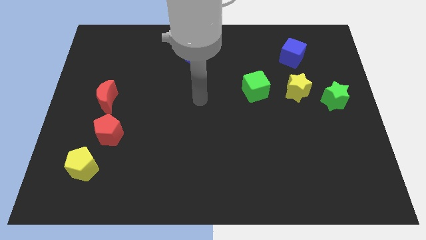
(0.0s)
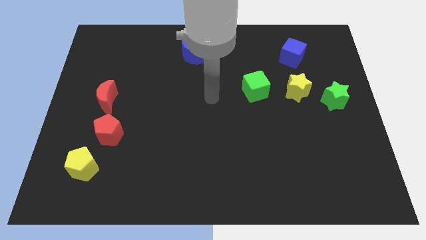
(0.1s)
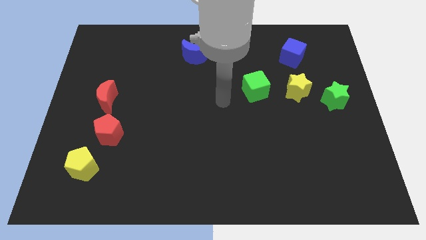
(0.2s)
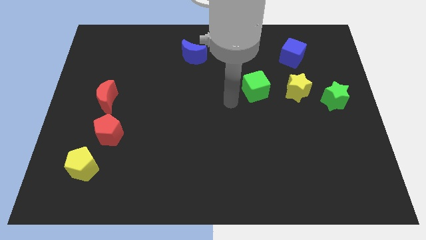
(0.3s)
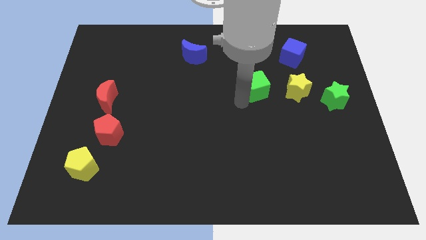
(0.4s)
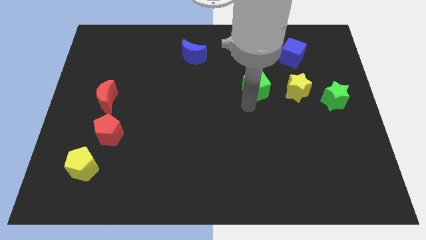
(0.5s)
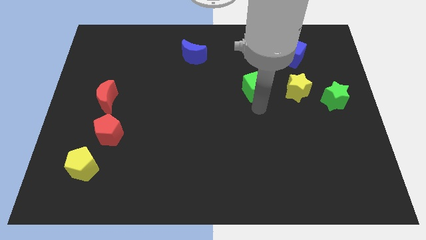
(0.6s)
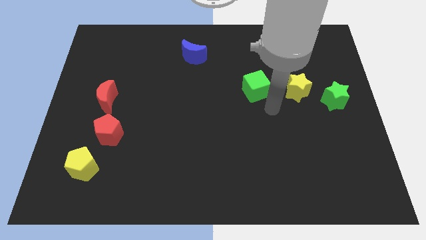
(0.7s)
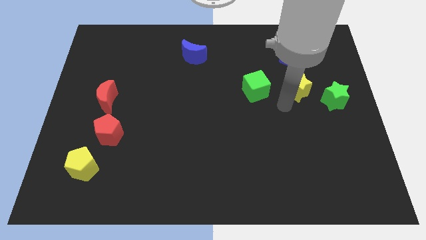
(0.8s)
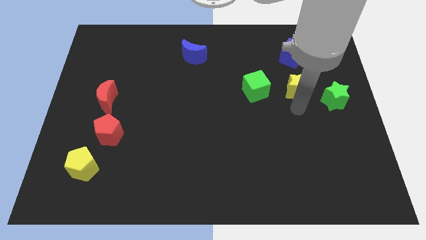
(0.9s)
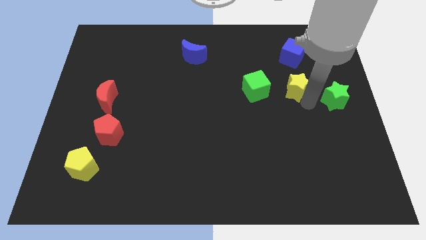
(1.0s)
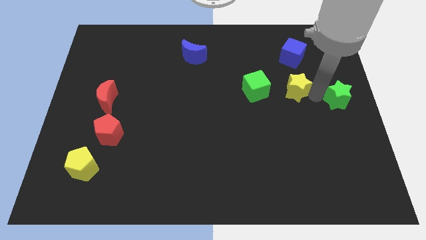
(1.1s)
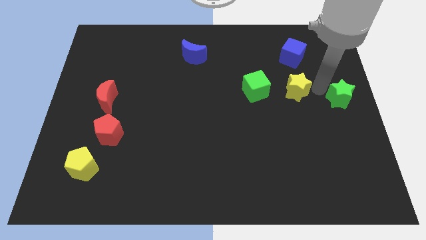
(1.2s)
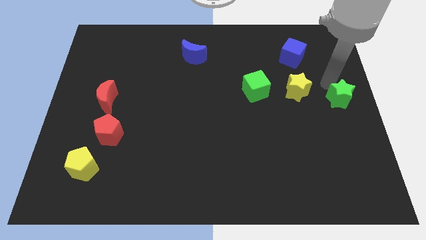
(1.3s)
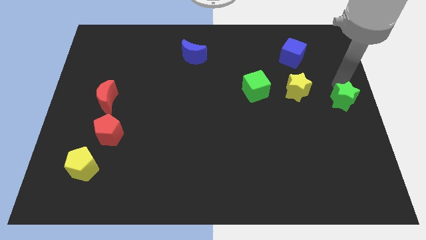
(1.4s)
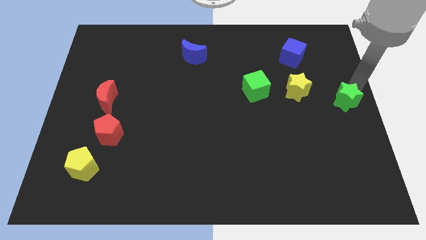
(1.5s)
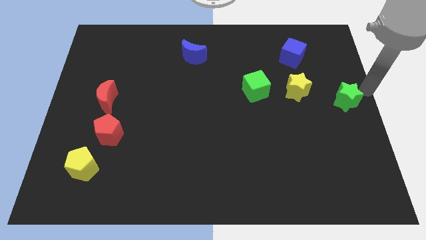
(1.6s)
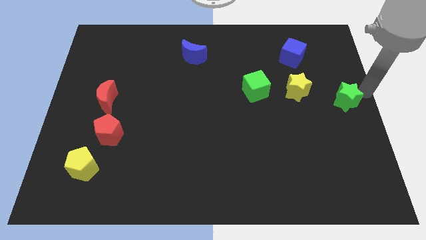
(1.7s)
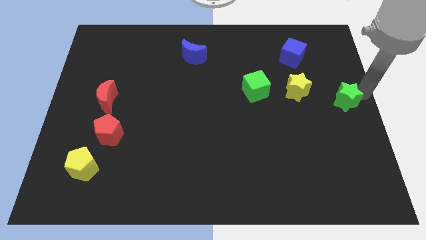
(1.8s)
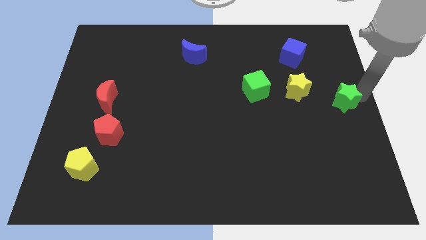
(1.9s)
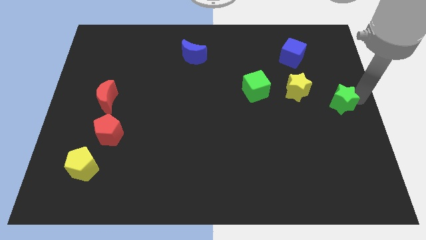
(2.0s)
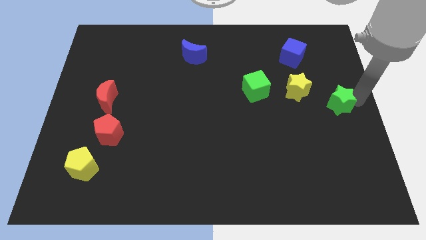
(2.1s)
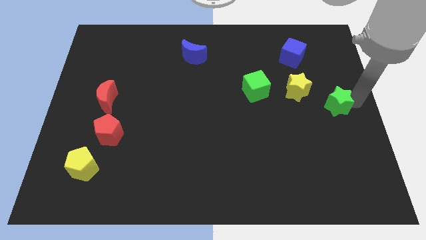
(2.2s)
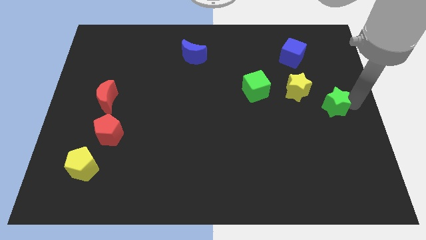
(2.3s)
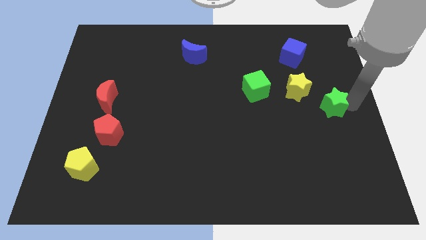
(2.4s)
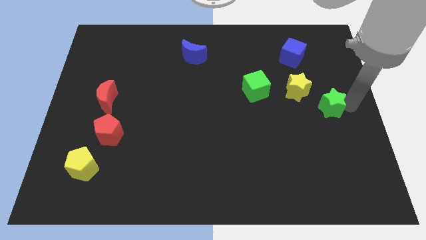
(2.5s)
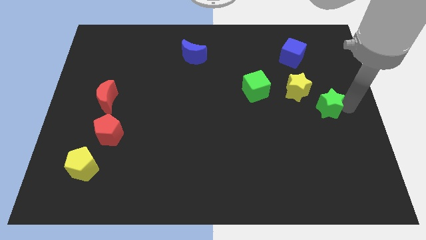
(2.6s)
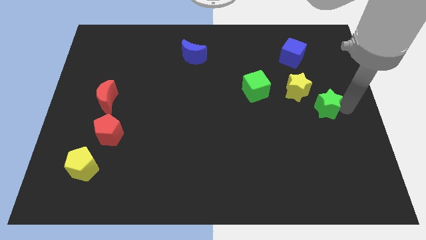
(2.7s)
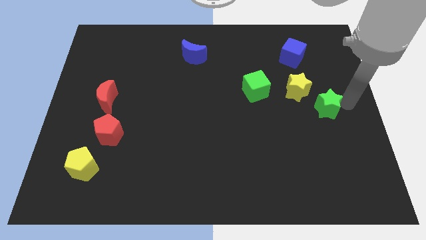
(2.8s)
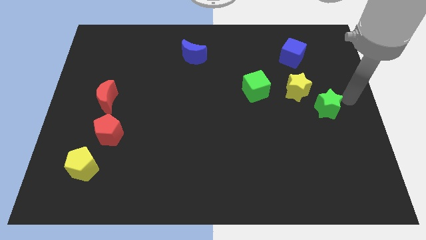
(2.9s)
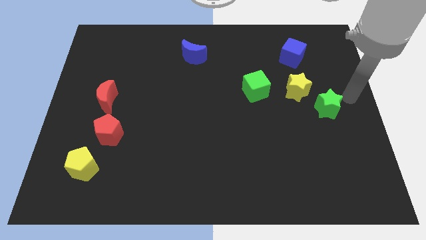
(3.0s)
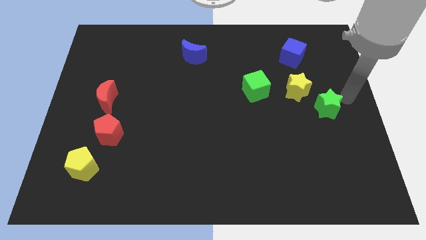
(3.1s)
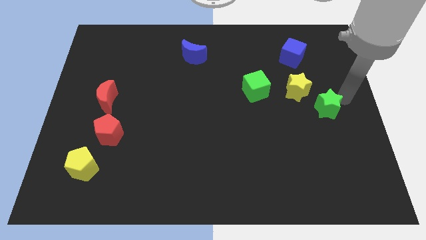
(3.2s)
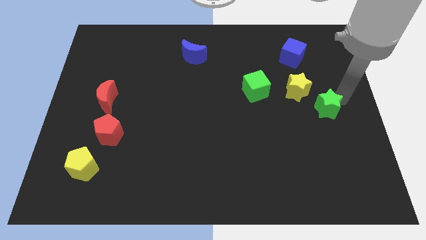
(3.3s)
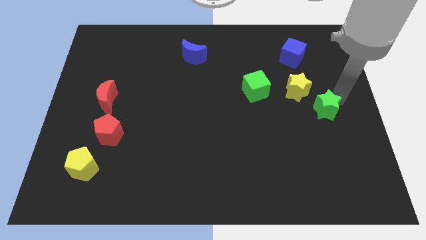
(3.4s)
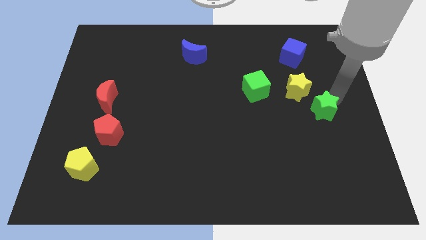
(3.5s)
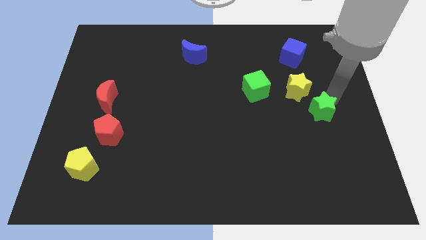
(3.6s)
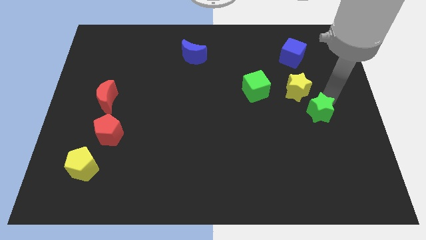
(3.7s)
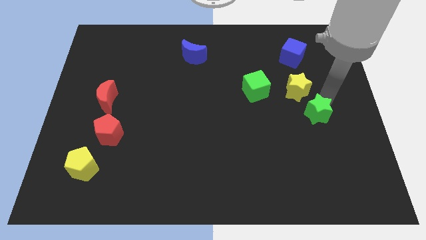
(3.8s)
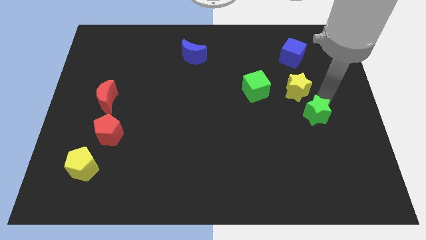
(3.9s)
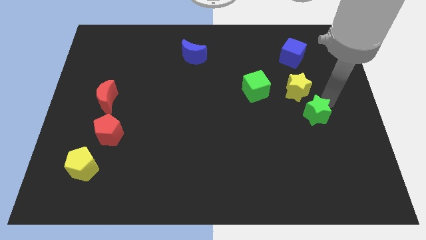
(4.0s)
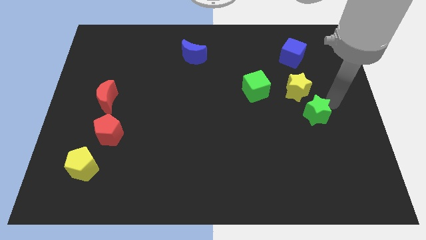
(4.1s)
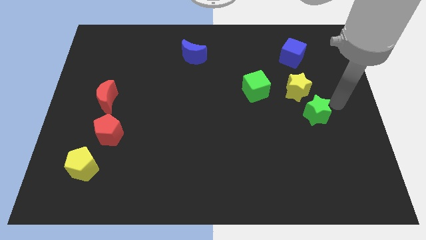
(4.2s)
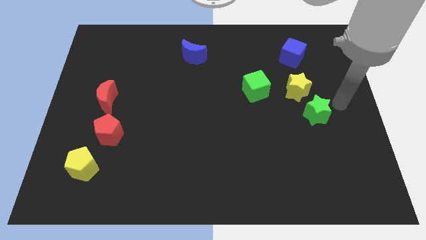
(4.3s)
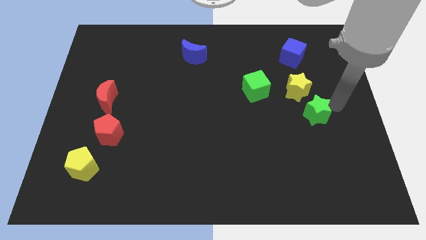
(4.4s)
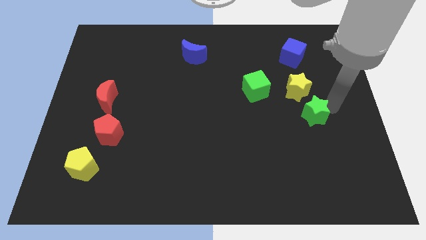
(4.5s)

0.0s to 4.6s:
push the green star a bit downwards and then left

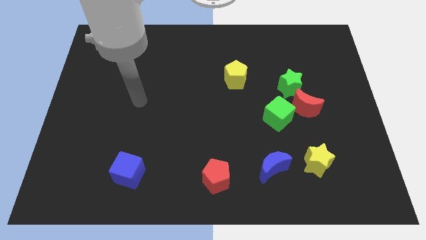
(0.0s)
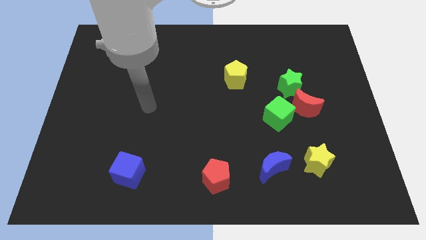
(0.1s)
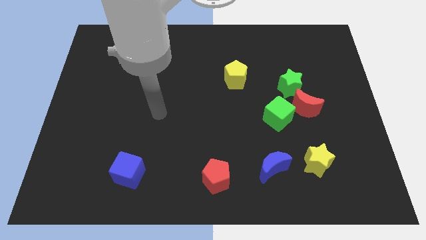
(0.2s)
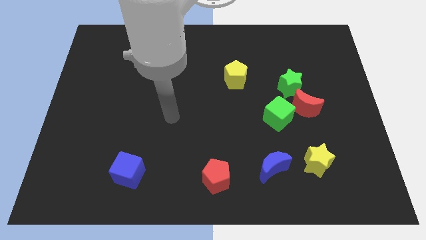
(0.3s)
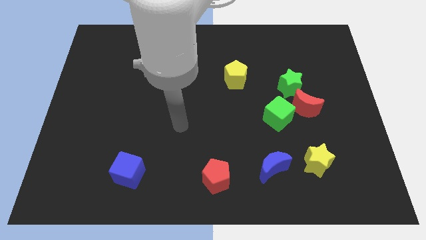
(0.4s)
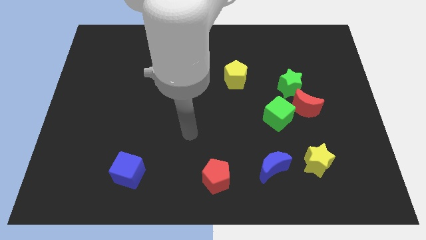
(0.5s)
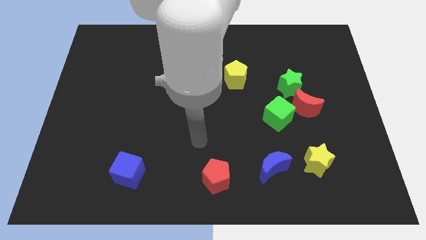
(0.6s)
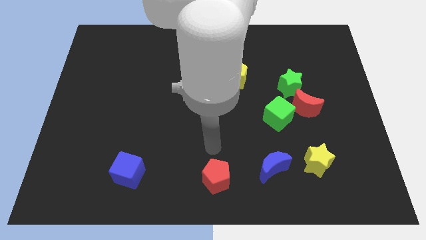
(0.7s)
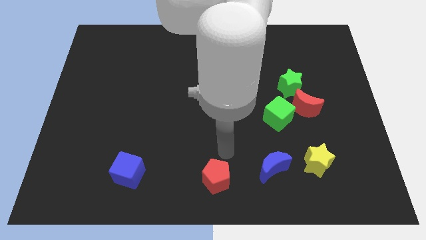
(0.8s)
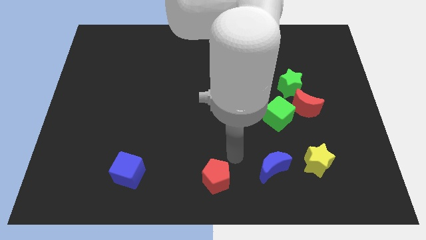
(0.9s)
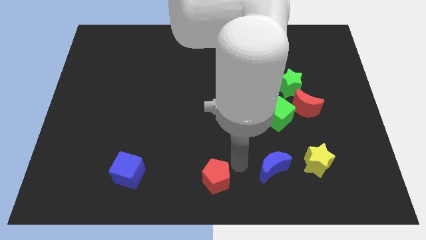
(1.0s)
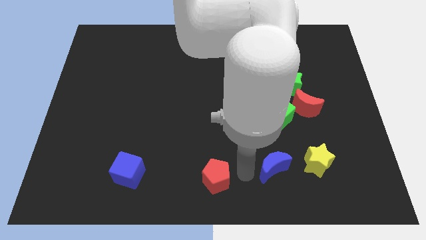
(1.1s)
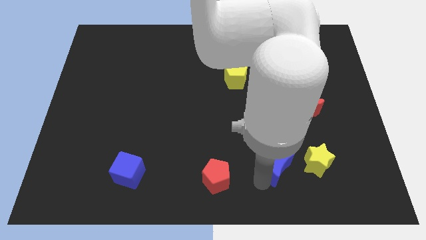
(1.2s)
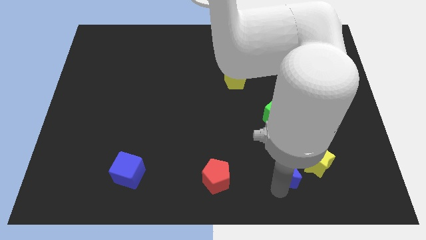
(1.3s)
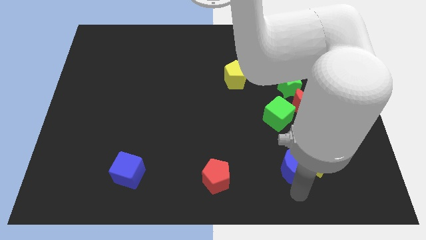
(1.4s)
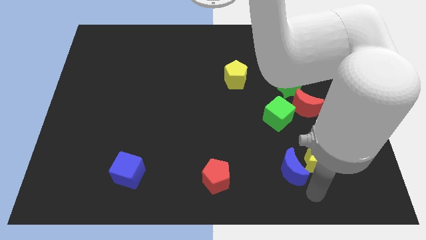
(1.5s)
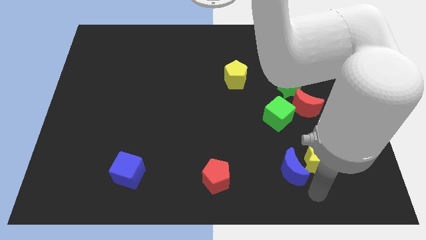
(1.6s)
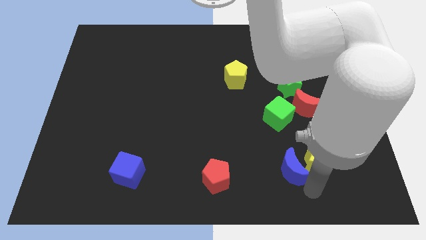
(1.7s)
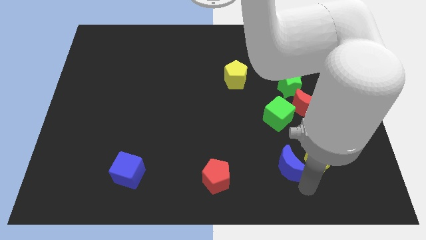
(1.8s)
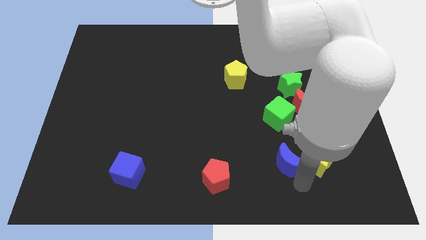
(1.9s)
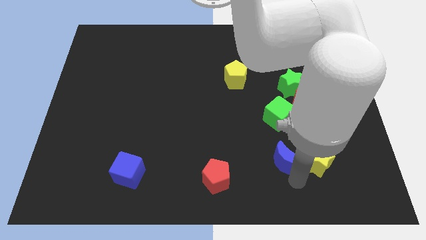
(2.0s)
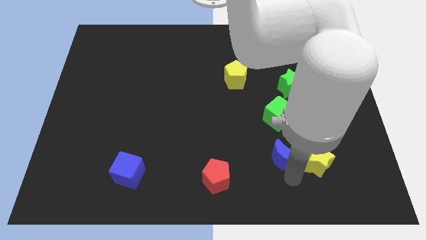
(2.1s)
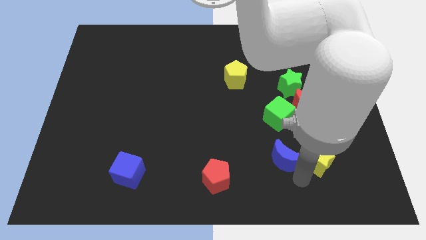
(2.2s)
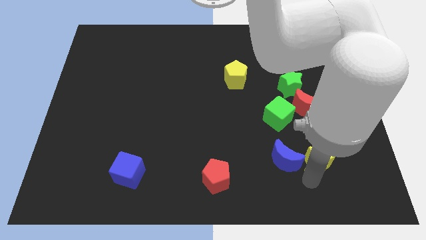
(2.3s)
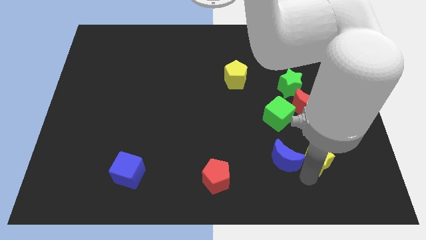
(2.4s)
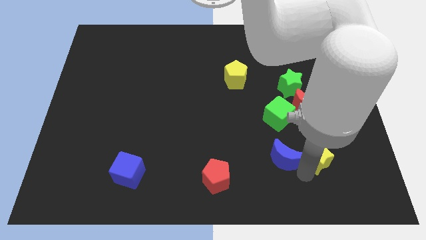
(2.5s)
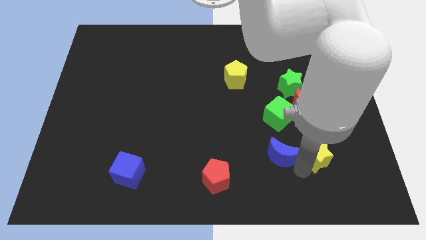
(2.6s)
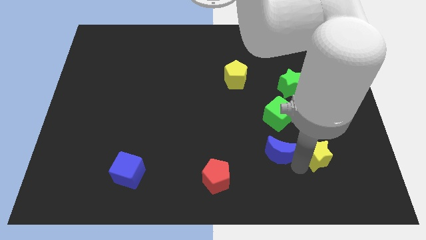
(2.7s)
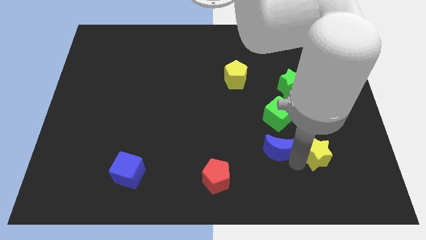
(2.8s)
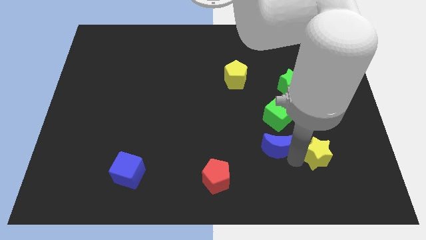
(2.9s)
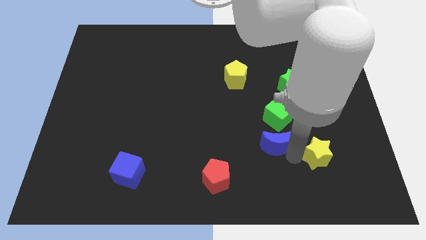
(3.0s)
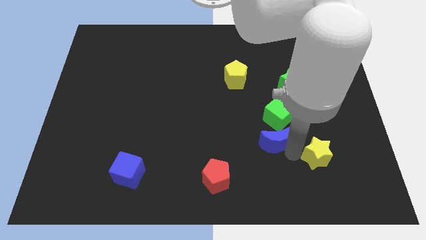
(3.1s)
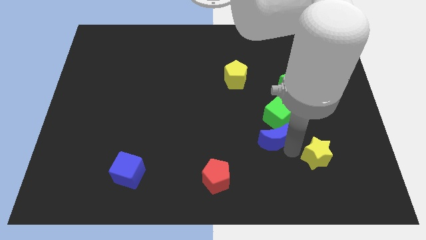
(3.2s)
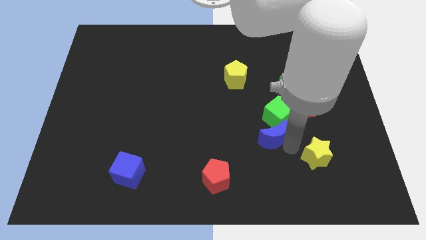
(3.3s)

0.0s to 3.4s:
slide the blue moon a bit up
